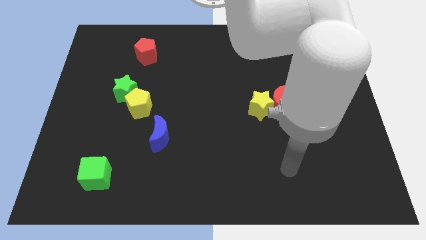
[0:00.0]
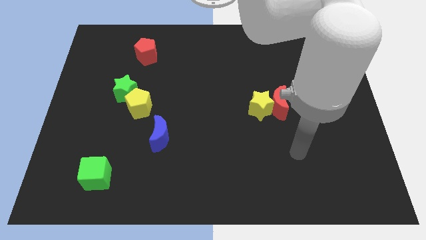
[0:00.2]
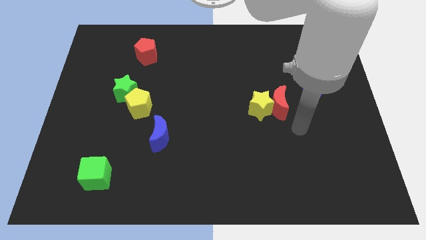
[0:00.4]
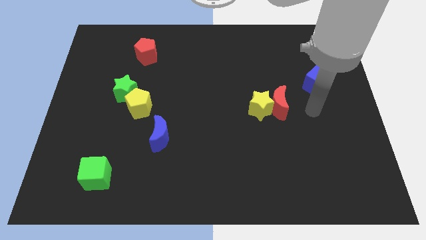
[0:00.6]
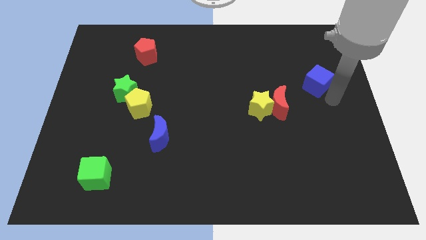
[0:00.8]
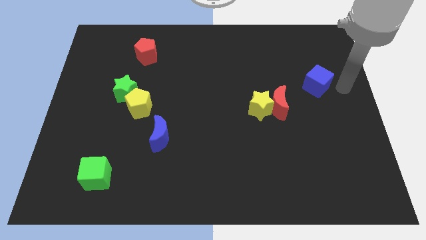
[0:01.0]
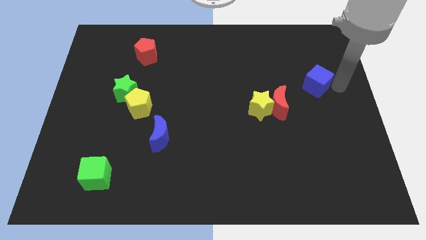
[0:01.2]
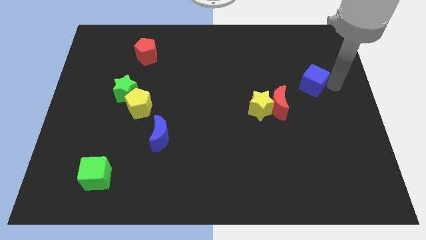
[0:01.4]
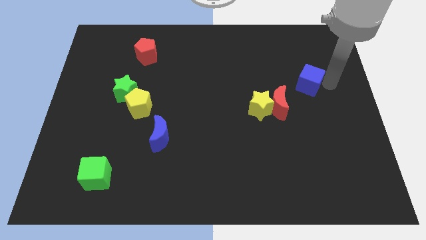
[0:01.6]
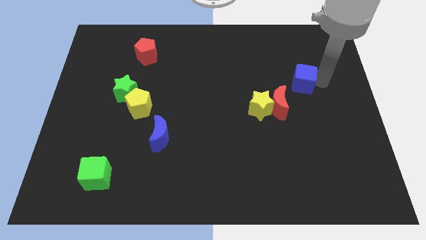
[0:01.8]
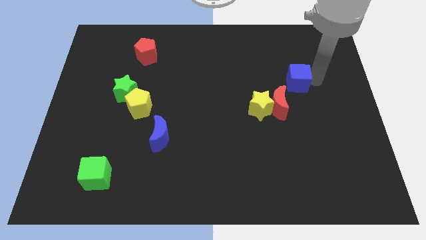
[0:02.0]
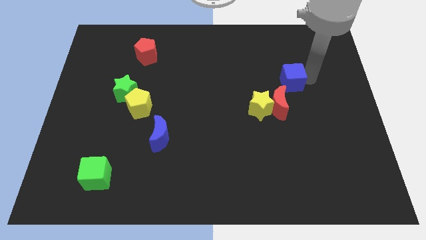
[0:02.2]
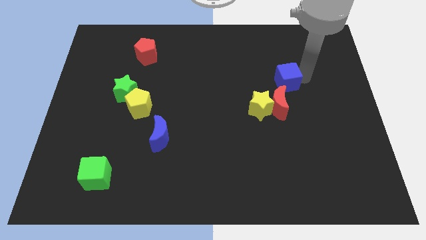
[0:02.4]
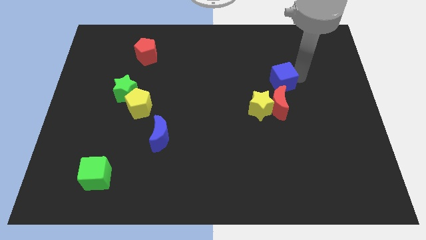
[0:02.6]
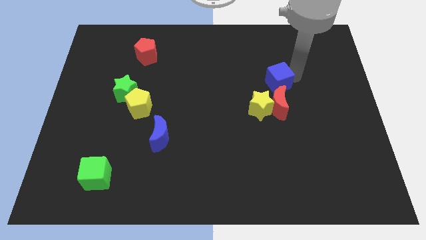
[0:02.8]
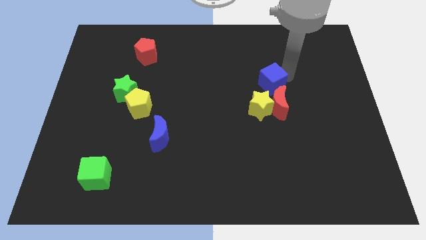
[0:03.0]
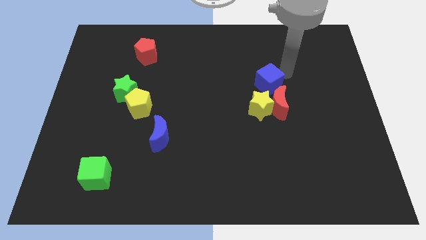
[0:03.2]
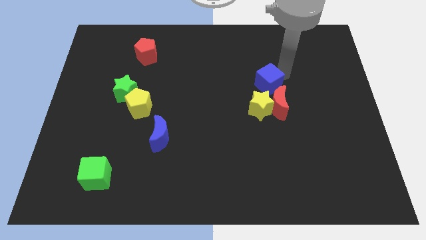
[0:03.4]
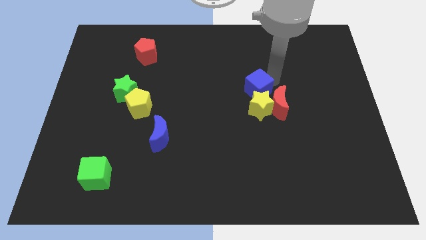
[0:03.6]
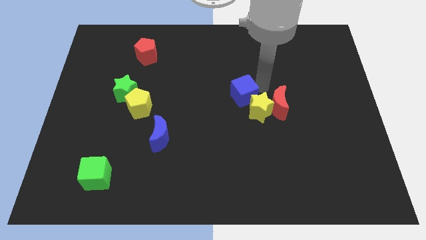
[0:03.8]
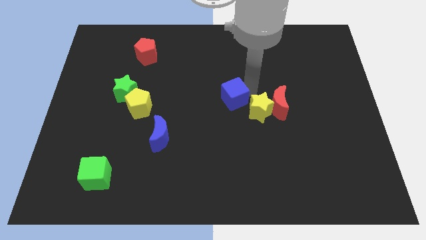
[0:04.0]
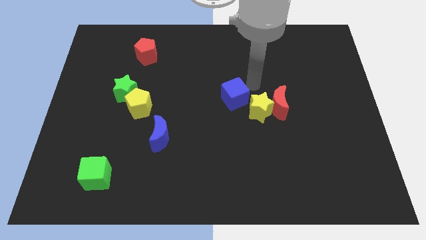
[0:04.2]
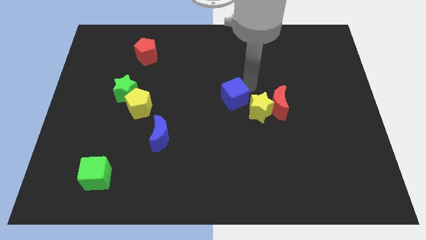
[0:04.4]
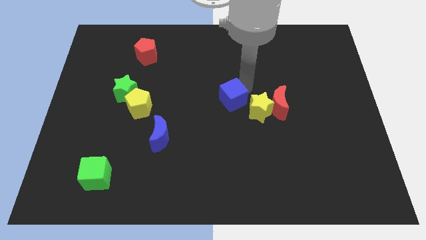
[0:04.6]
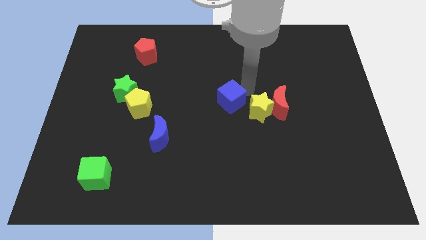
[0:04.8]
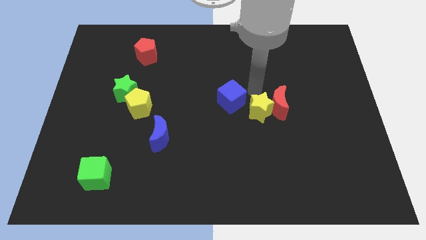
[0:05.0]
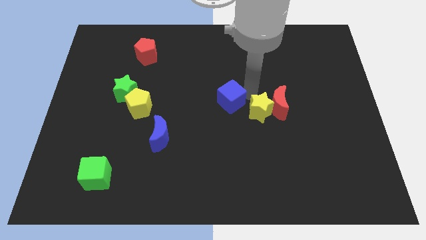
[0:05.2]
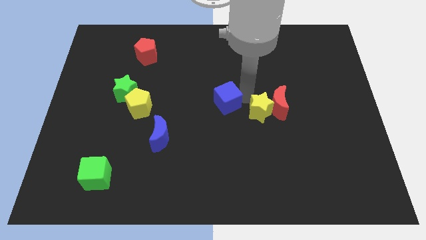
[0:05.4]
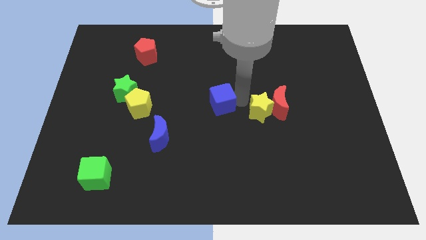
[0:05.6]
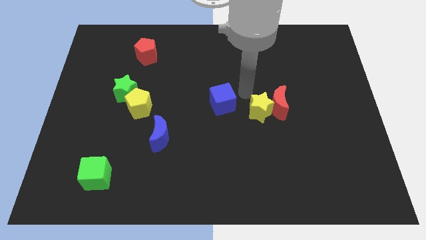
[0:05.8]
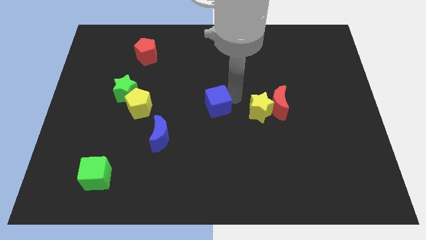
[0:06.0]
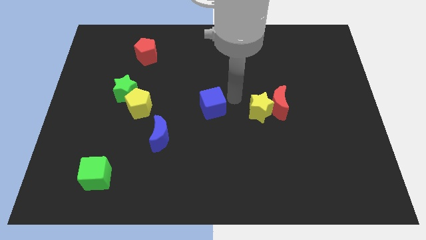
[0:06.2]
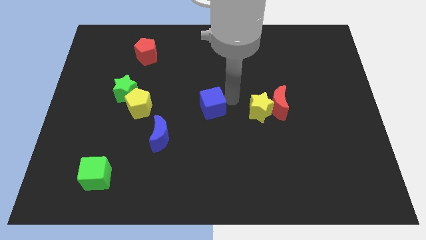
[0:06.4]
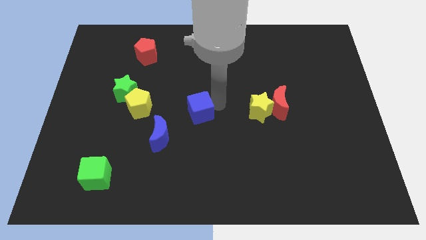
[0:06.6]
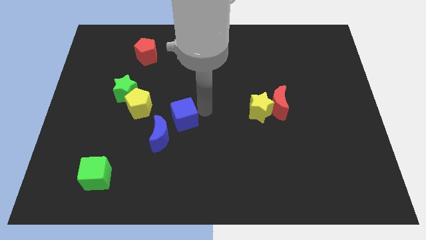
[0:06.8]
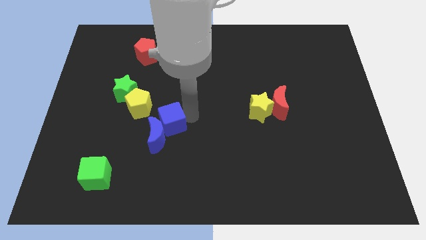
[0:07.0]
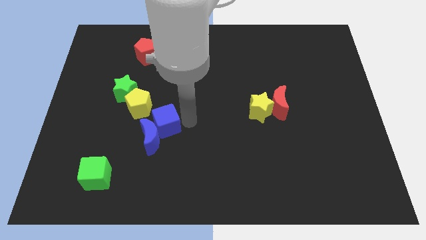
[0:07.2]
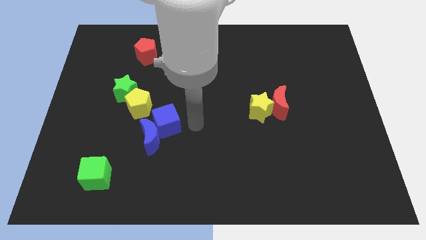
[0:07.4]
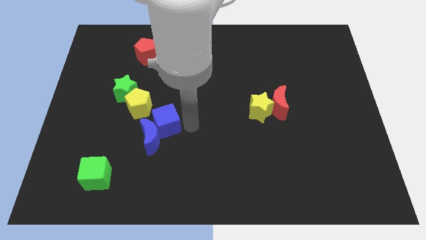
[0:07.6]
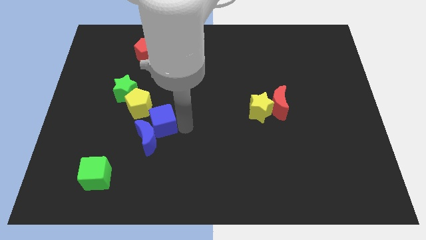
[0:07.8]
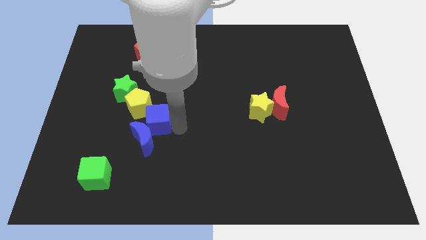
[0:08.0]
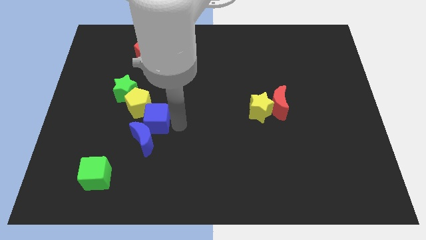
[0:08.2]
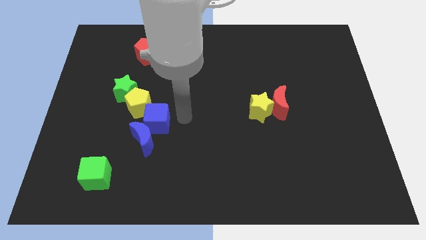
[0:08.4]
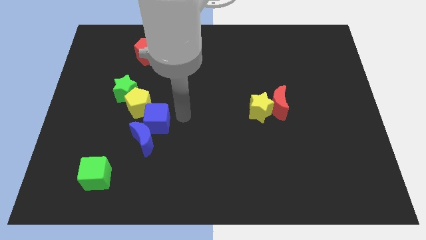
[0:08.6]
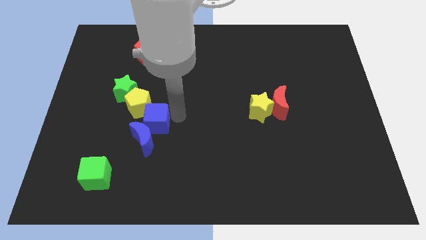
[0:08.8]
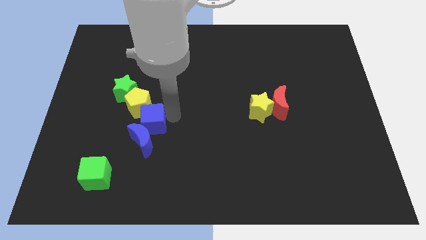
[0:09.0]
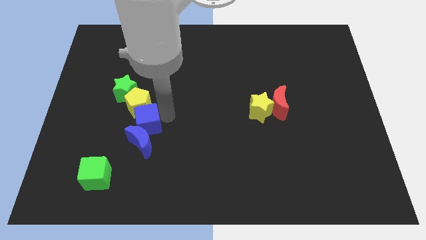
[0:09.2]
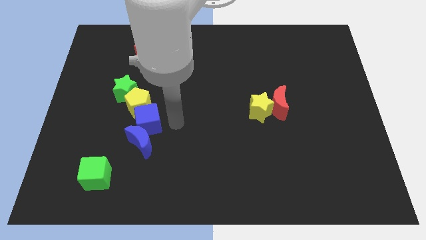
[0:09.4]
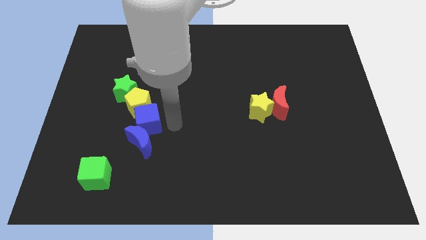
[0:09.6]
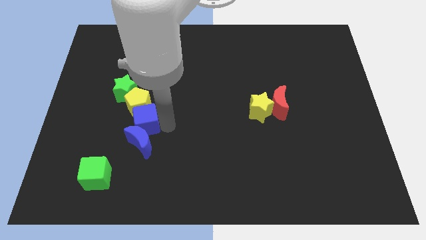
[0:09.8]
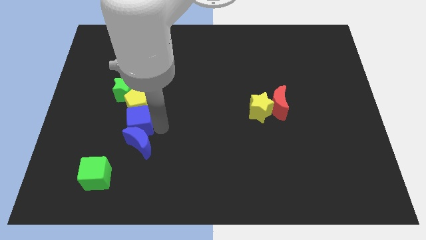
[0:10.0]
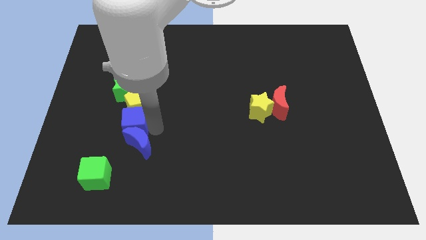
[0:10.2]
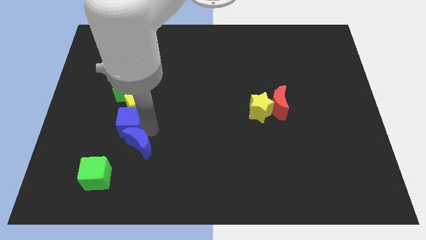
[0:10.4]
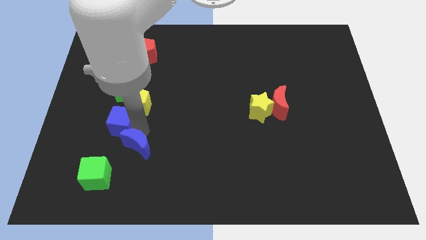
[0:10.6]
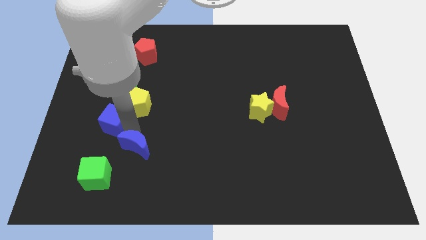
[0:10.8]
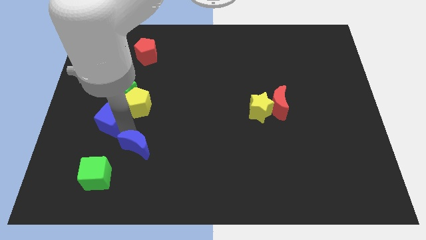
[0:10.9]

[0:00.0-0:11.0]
put the blue cube left of the yellow pentagon

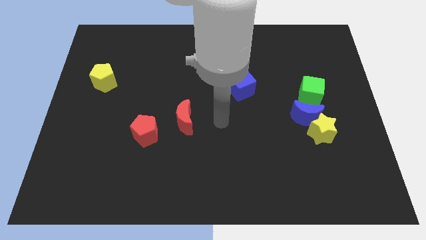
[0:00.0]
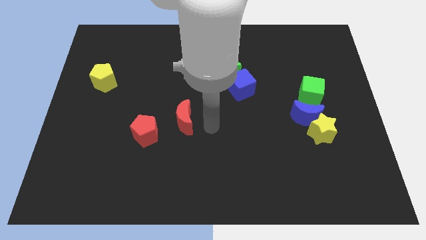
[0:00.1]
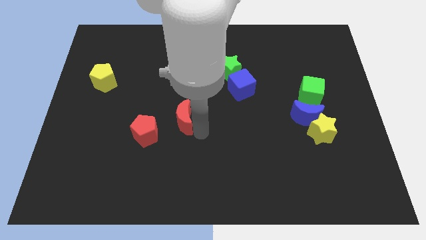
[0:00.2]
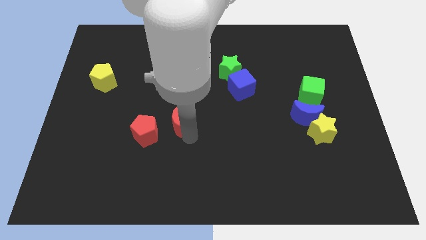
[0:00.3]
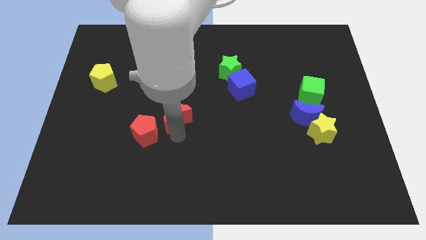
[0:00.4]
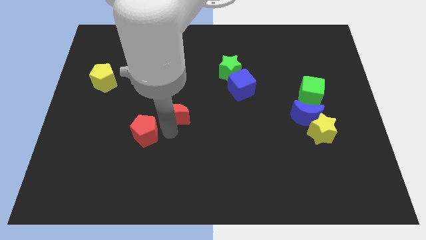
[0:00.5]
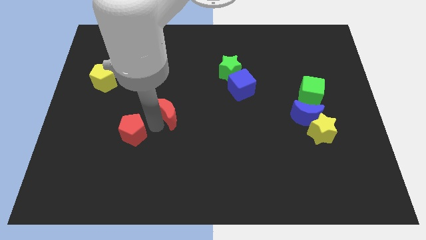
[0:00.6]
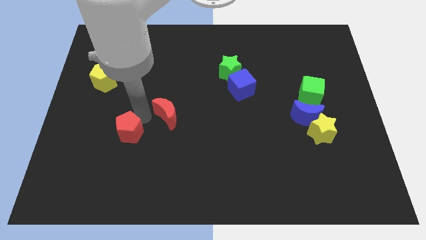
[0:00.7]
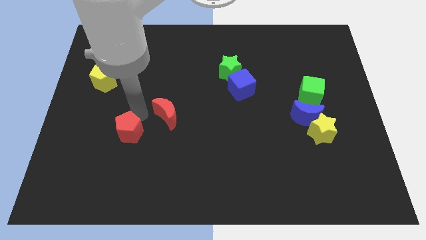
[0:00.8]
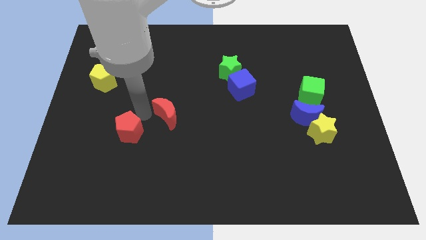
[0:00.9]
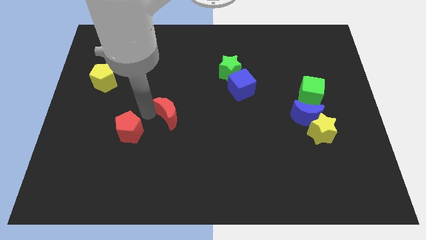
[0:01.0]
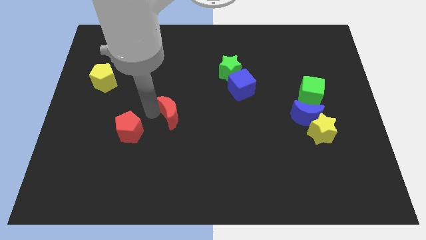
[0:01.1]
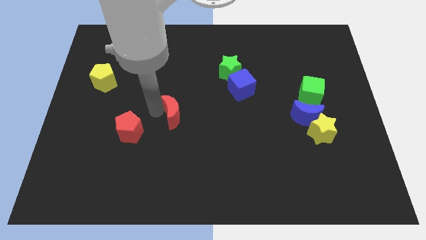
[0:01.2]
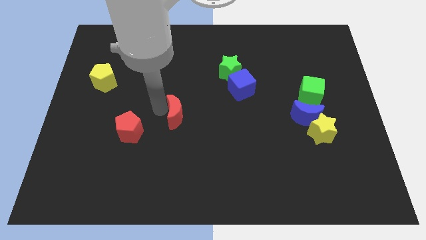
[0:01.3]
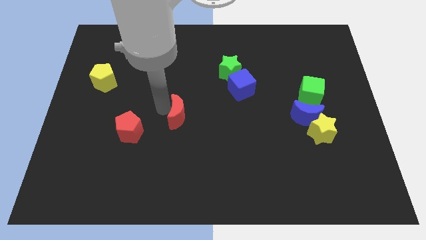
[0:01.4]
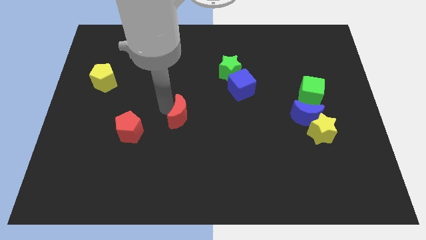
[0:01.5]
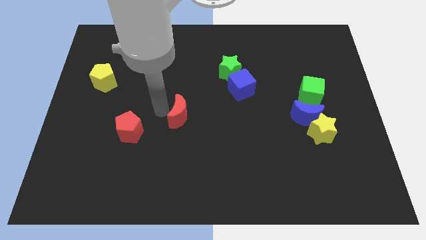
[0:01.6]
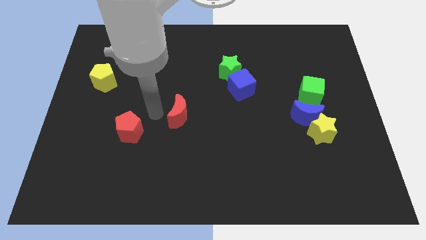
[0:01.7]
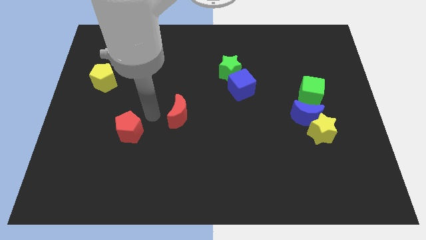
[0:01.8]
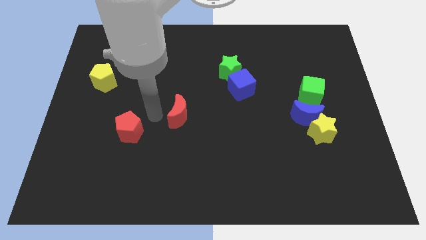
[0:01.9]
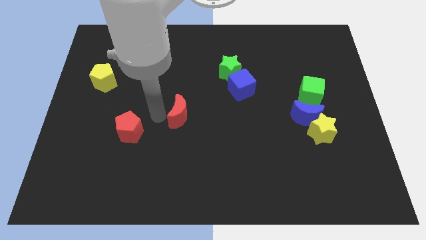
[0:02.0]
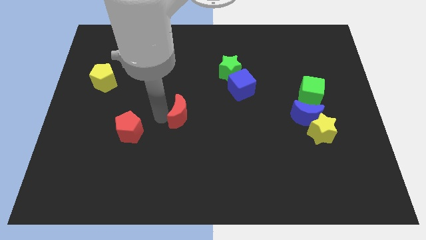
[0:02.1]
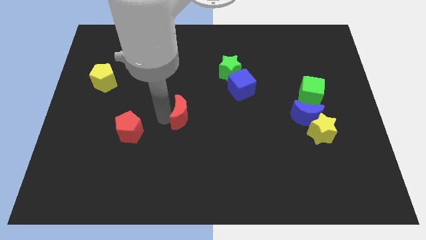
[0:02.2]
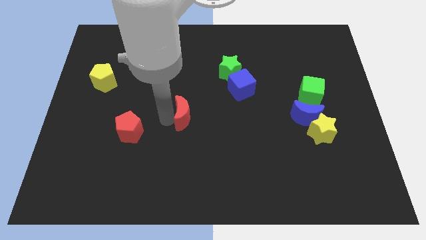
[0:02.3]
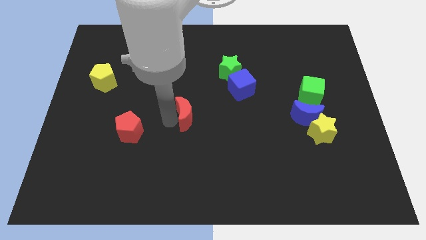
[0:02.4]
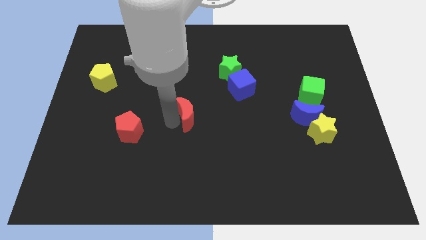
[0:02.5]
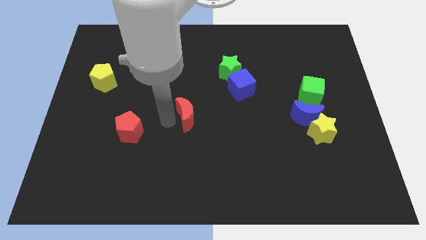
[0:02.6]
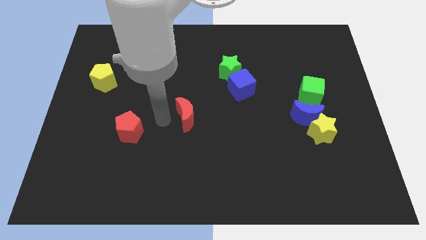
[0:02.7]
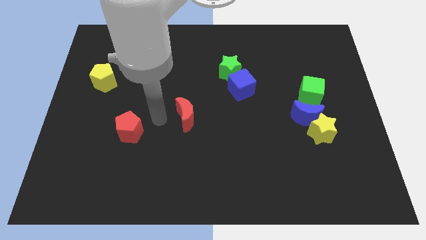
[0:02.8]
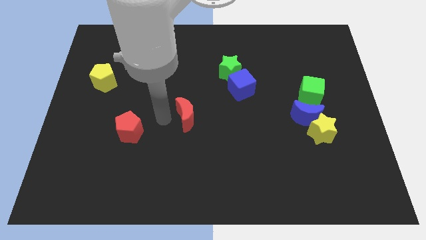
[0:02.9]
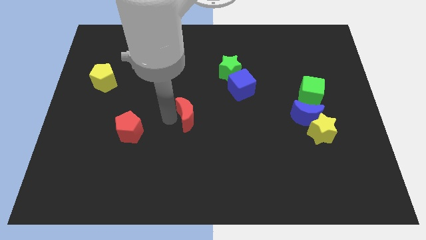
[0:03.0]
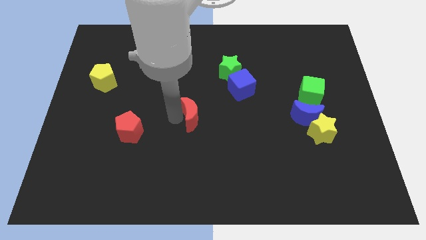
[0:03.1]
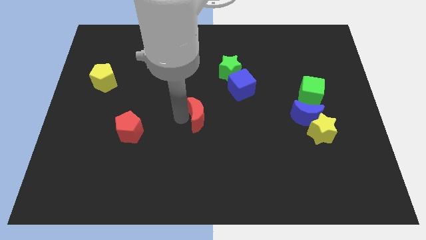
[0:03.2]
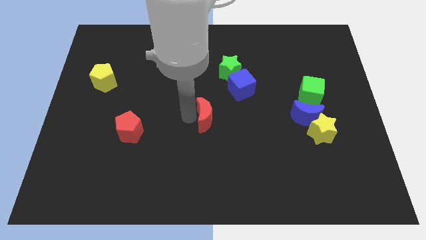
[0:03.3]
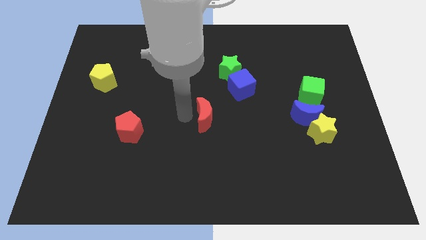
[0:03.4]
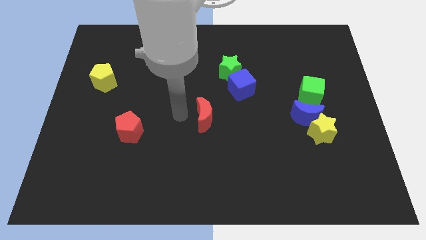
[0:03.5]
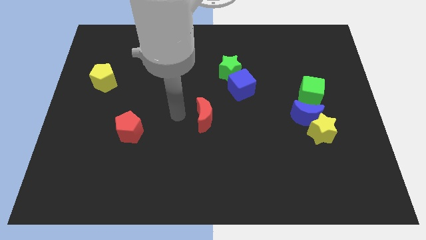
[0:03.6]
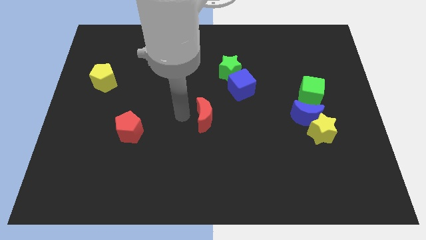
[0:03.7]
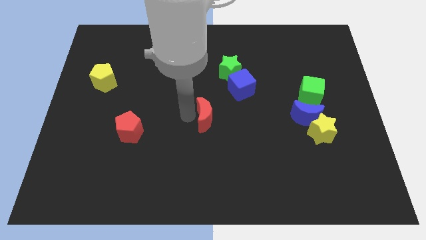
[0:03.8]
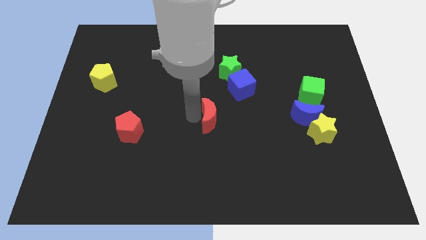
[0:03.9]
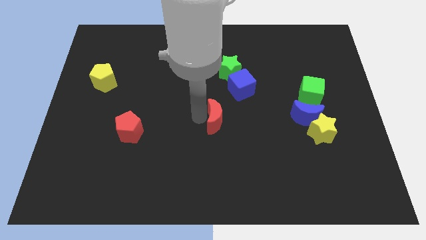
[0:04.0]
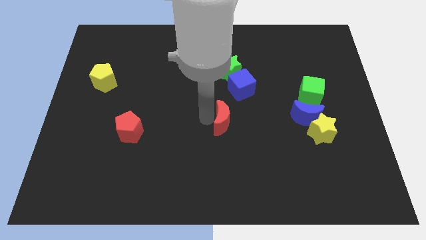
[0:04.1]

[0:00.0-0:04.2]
move the red moon below the blue cube
